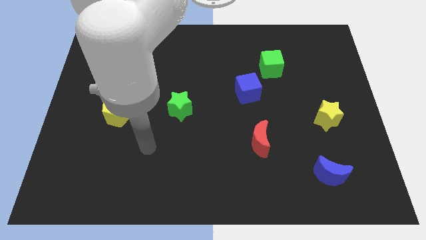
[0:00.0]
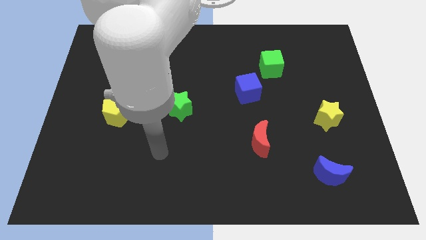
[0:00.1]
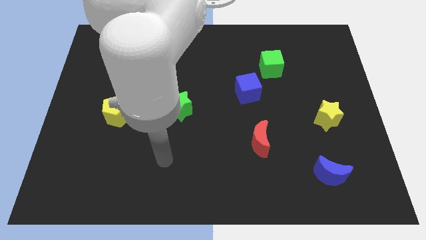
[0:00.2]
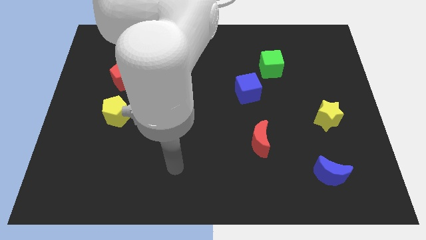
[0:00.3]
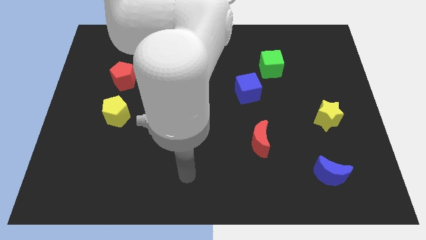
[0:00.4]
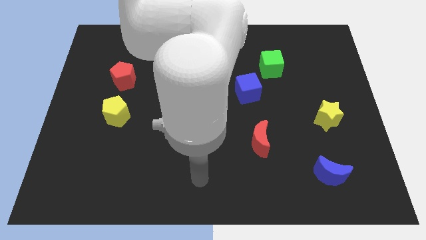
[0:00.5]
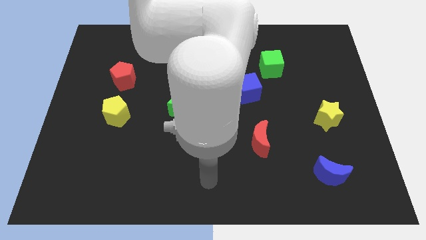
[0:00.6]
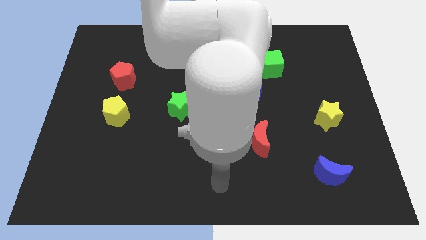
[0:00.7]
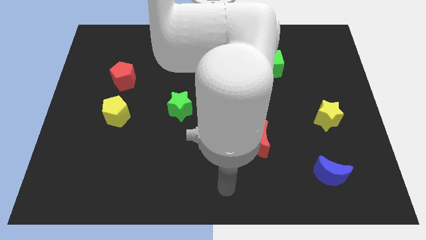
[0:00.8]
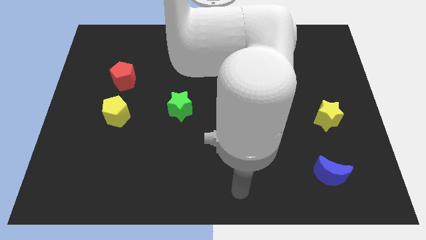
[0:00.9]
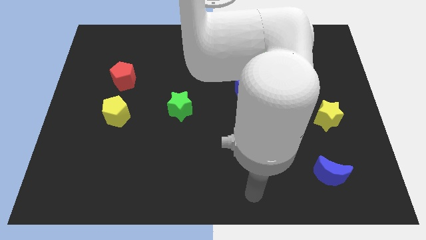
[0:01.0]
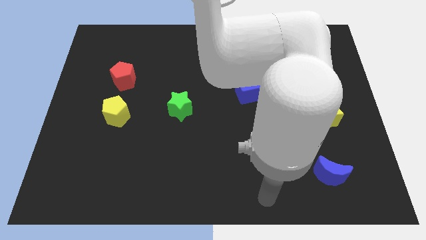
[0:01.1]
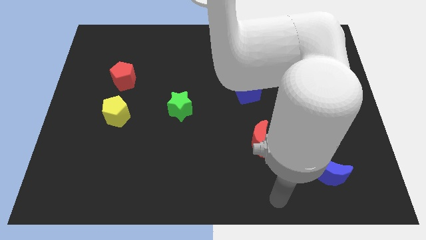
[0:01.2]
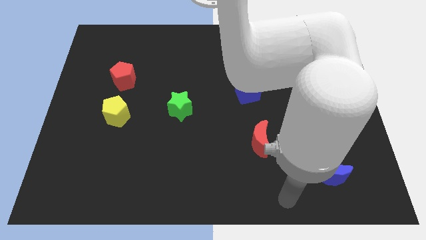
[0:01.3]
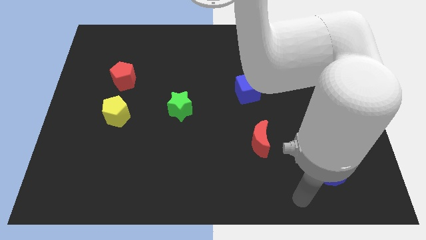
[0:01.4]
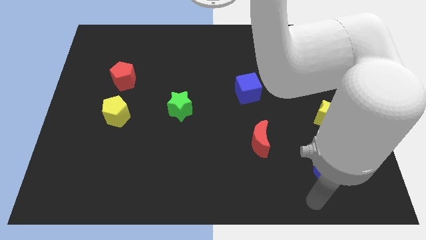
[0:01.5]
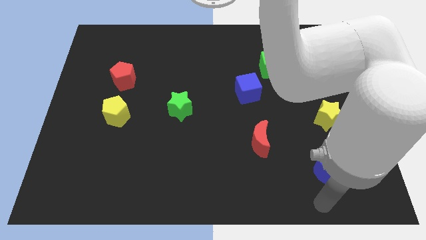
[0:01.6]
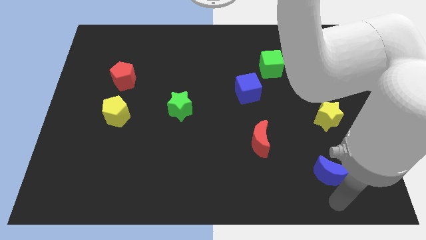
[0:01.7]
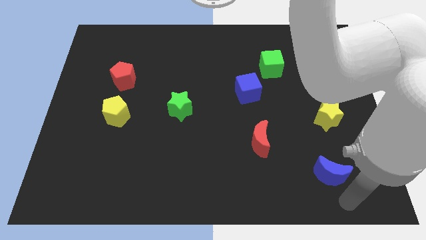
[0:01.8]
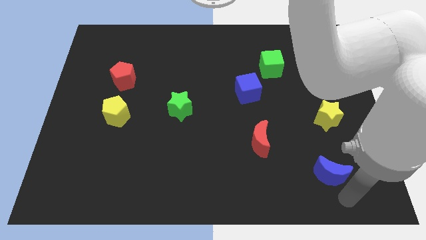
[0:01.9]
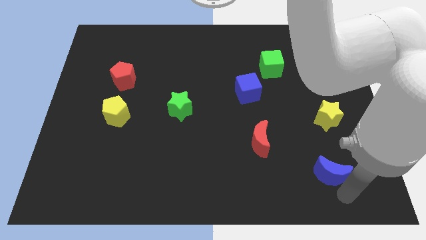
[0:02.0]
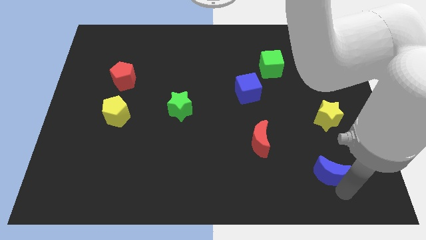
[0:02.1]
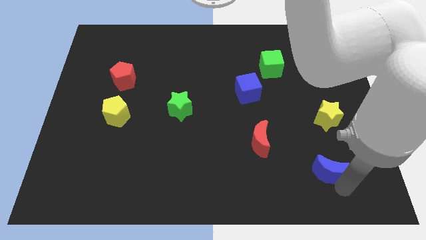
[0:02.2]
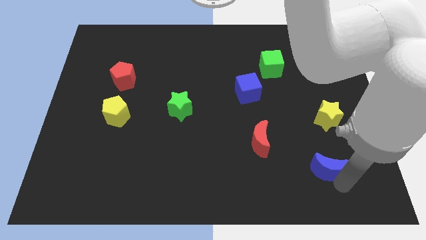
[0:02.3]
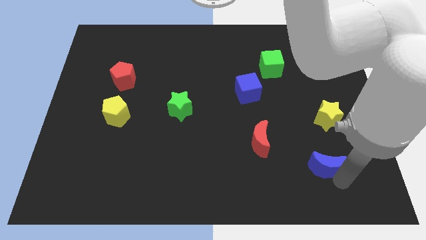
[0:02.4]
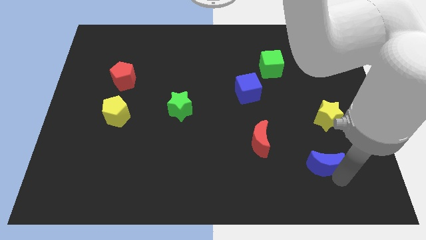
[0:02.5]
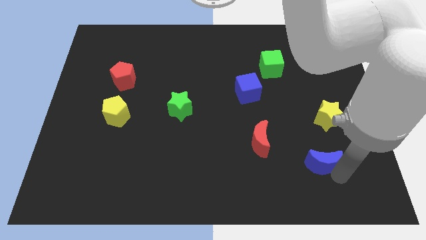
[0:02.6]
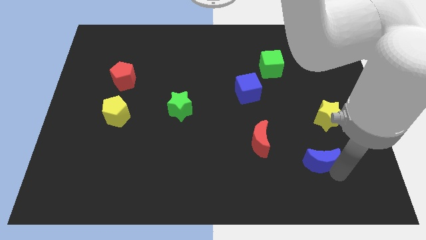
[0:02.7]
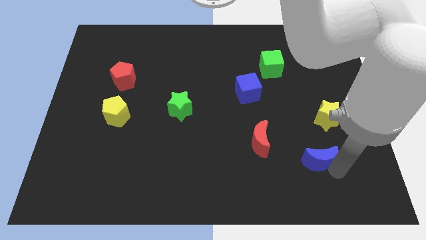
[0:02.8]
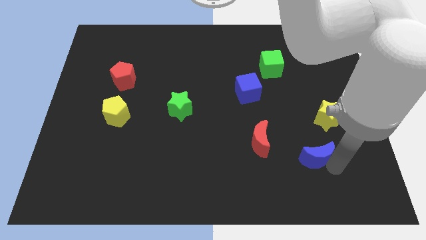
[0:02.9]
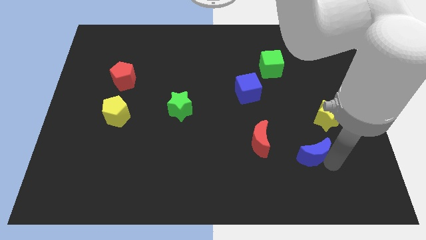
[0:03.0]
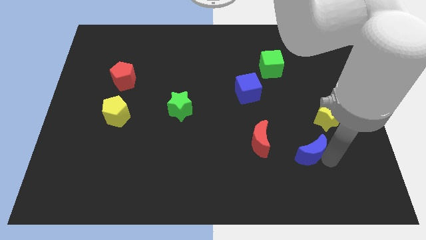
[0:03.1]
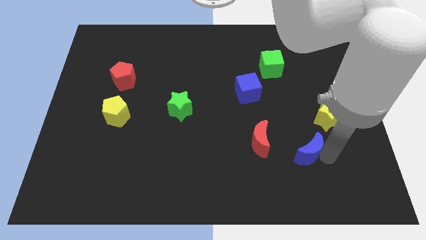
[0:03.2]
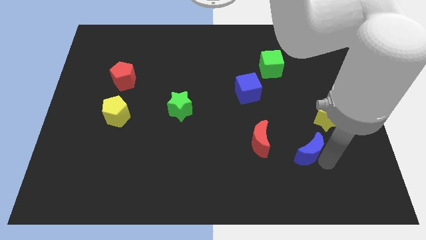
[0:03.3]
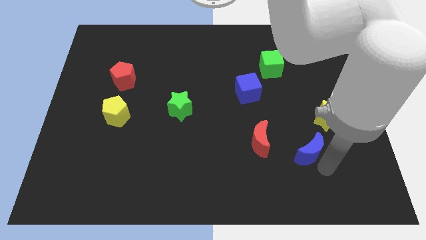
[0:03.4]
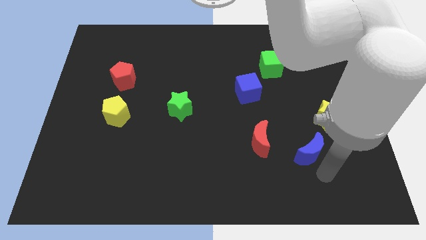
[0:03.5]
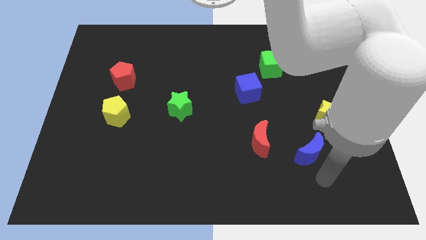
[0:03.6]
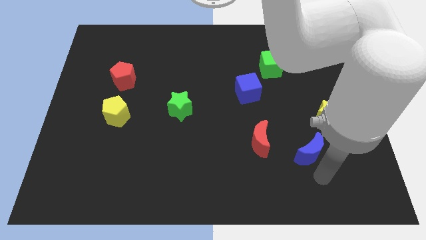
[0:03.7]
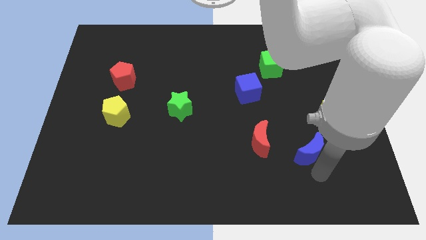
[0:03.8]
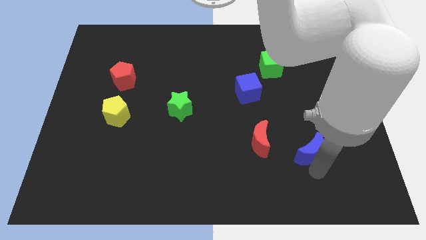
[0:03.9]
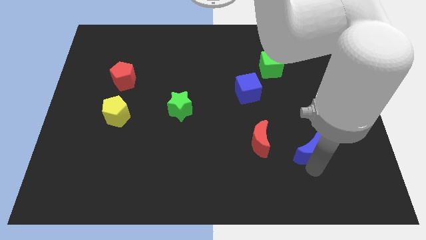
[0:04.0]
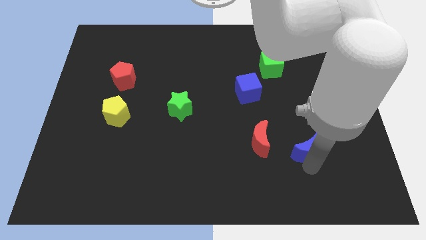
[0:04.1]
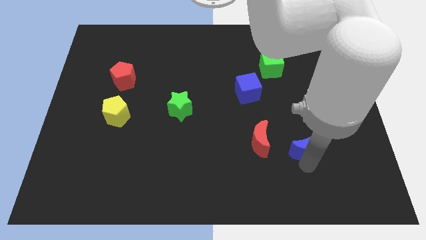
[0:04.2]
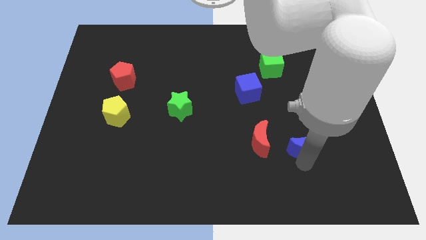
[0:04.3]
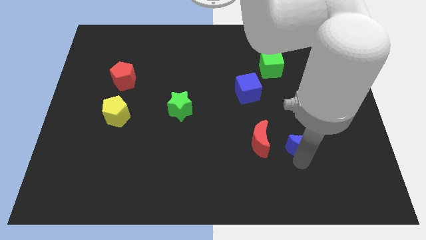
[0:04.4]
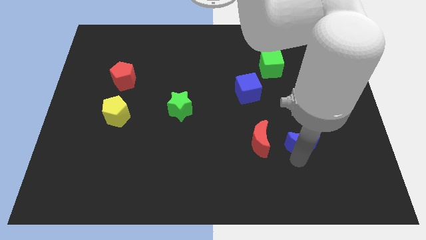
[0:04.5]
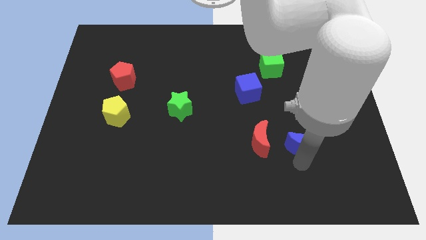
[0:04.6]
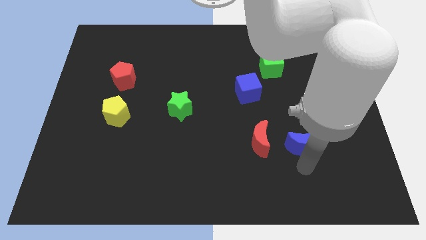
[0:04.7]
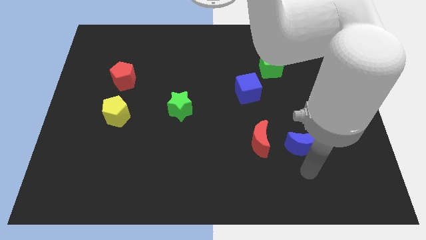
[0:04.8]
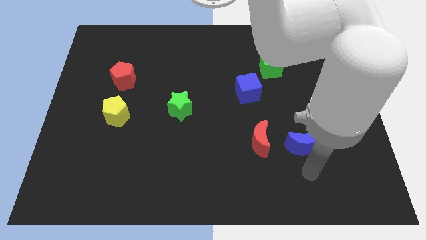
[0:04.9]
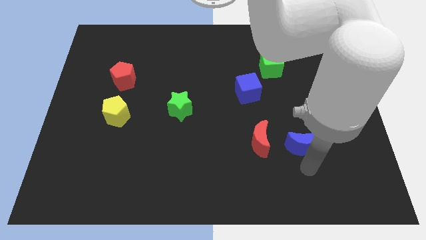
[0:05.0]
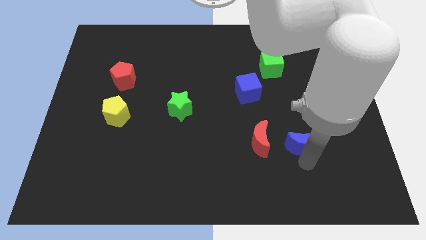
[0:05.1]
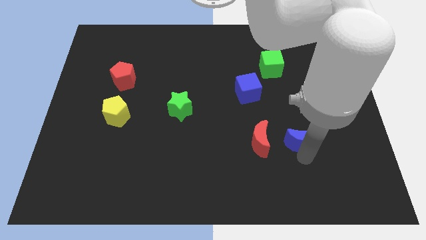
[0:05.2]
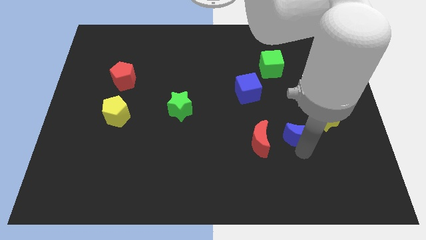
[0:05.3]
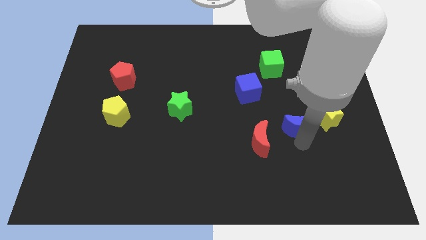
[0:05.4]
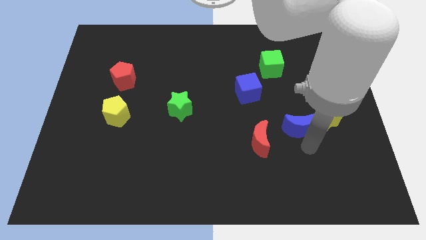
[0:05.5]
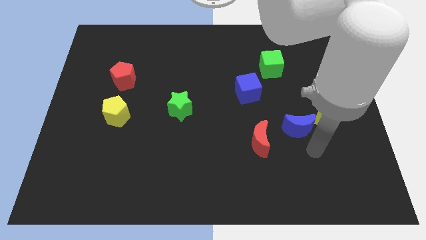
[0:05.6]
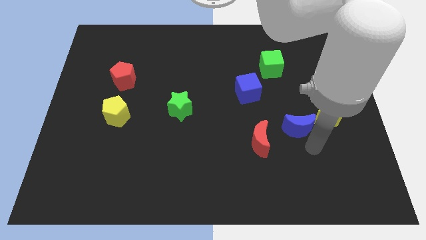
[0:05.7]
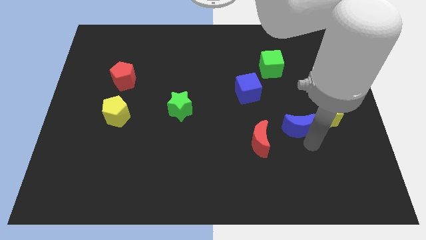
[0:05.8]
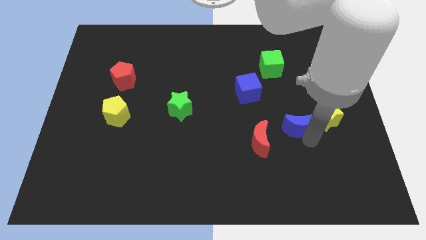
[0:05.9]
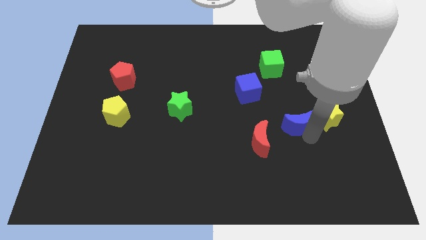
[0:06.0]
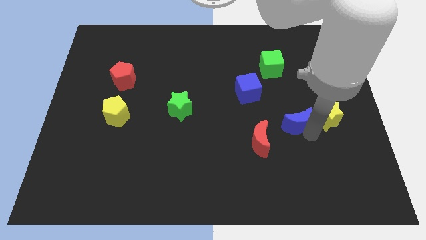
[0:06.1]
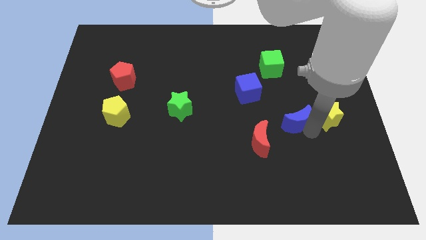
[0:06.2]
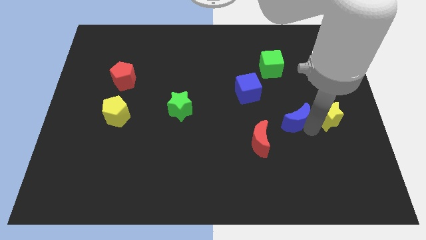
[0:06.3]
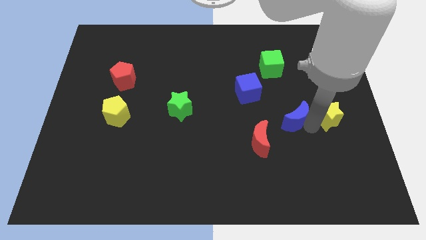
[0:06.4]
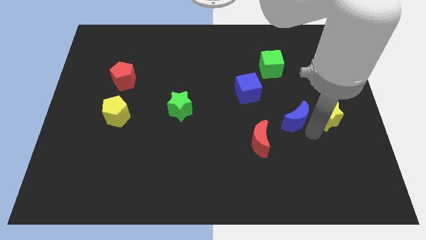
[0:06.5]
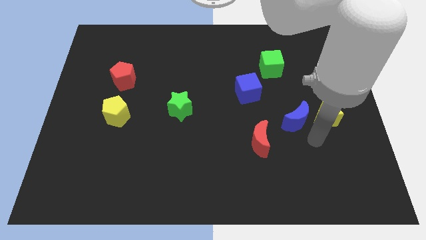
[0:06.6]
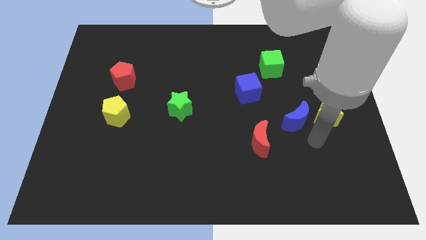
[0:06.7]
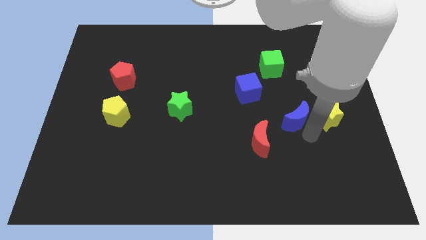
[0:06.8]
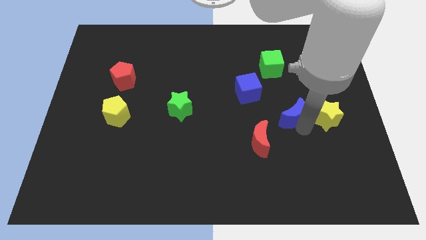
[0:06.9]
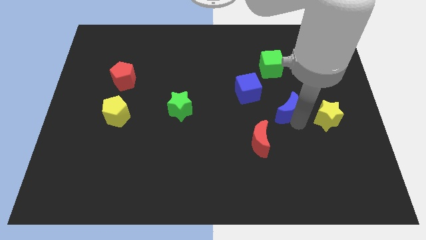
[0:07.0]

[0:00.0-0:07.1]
slide the blue moon to the bottom of the green cube

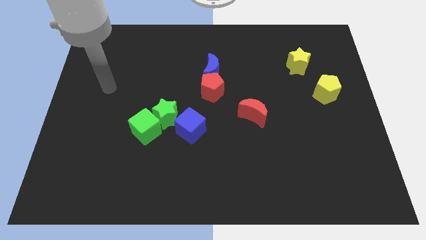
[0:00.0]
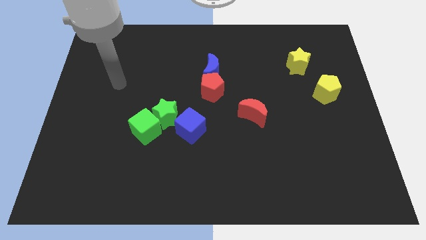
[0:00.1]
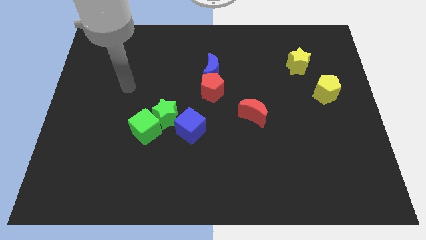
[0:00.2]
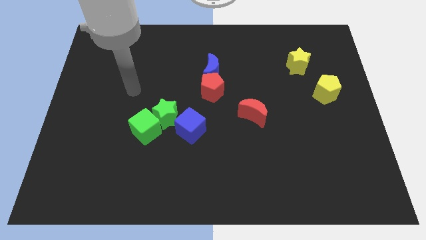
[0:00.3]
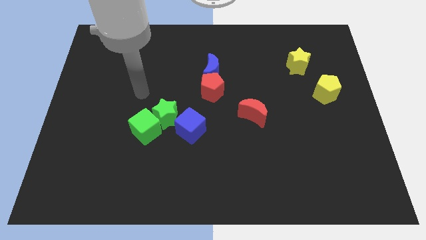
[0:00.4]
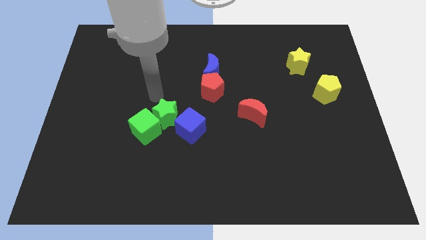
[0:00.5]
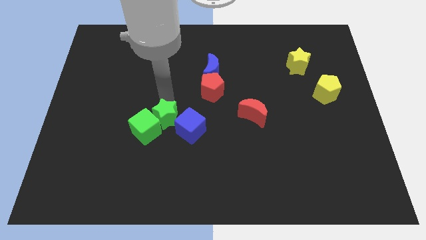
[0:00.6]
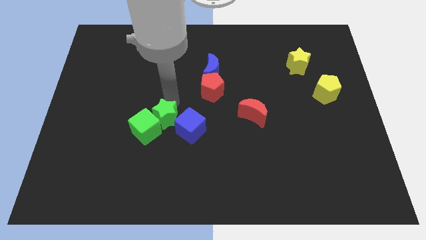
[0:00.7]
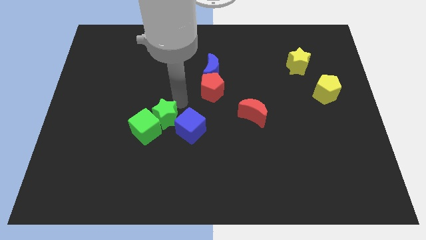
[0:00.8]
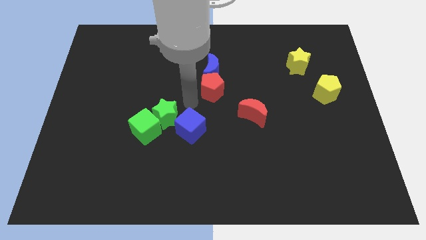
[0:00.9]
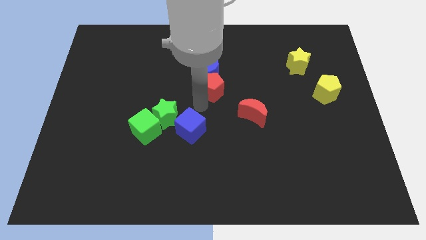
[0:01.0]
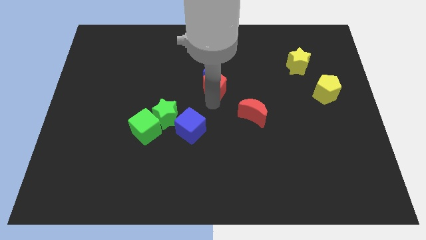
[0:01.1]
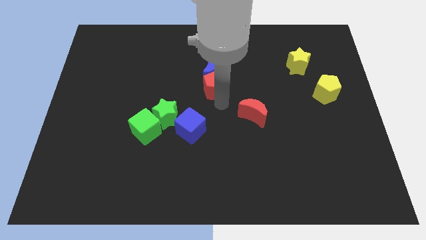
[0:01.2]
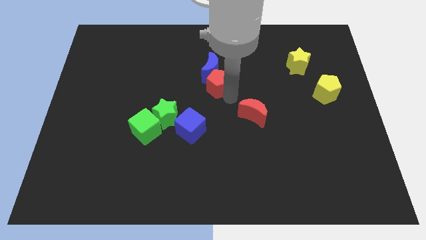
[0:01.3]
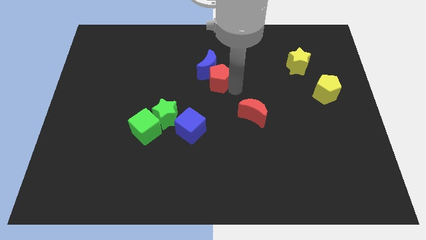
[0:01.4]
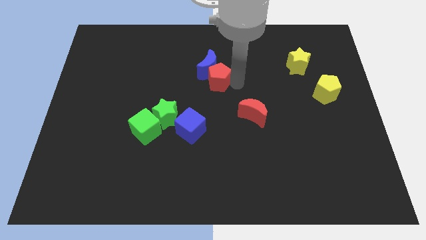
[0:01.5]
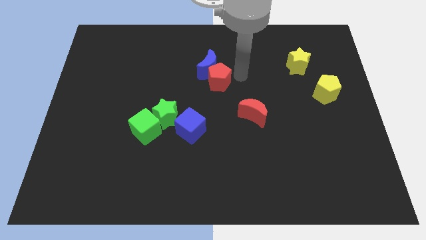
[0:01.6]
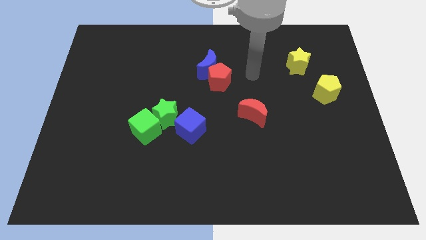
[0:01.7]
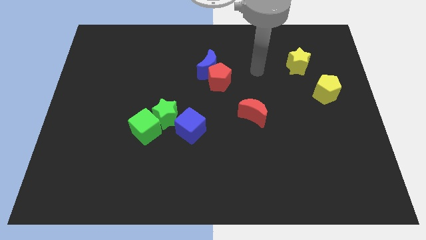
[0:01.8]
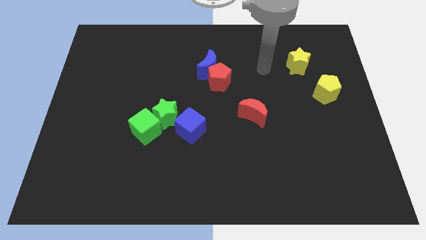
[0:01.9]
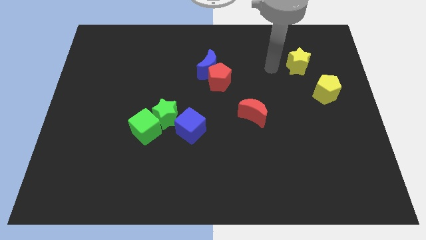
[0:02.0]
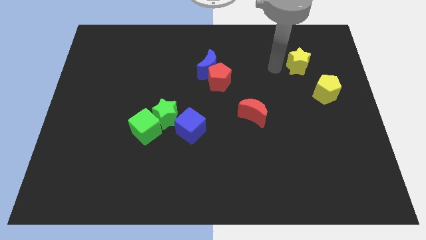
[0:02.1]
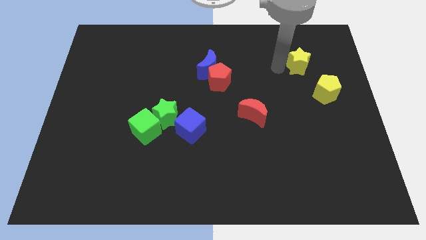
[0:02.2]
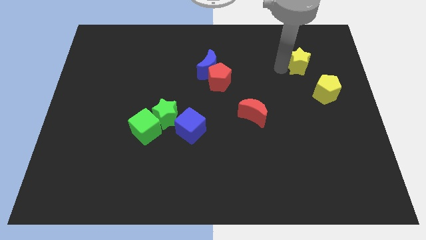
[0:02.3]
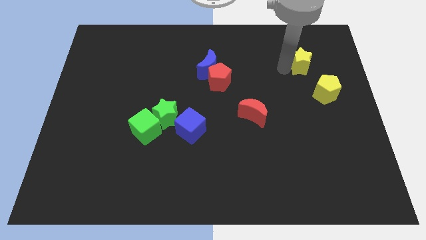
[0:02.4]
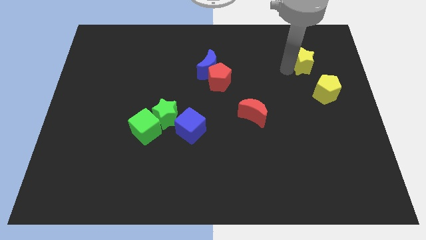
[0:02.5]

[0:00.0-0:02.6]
slide the yellow star to the top side of the yellow pentagon
